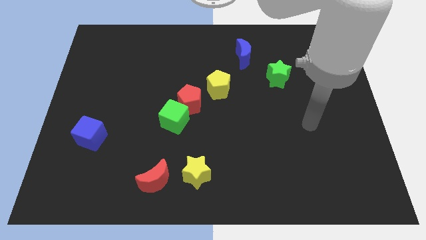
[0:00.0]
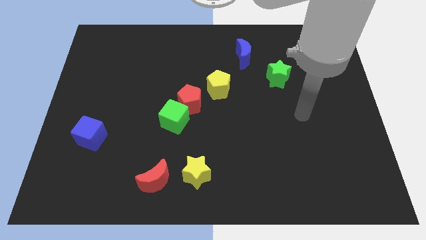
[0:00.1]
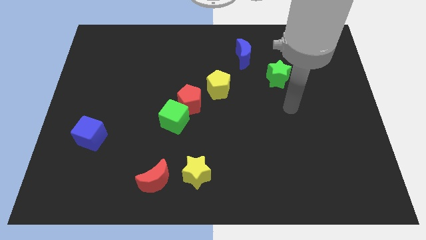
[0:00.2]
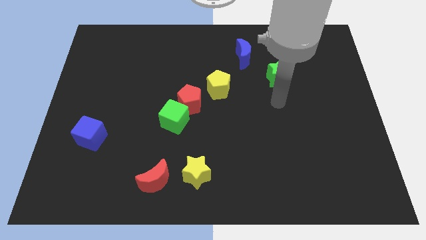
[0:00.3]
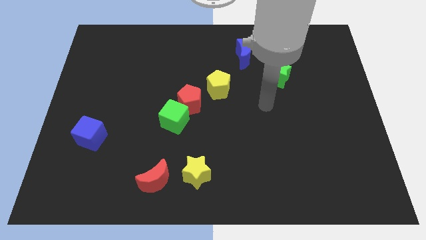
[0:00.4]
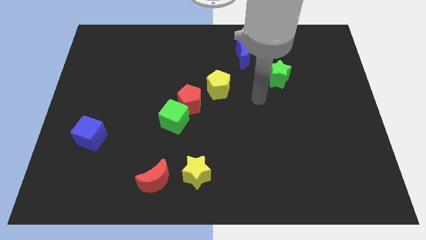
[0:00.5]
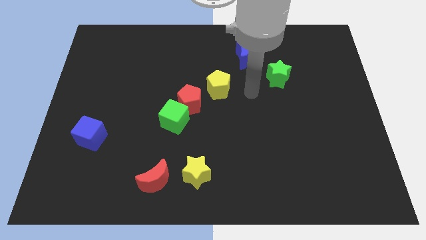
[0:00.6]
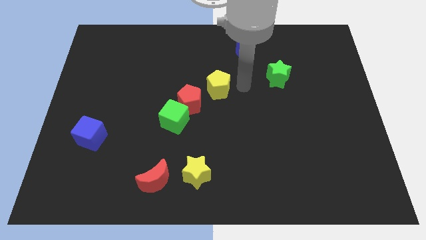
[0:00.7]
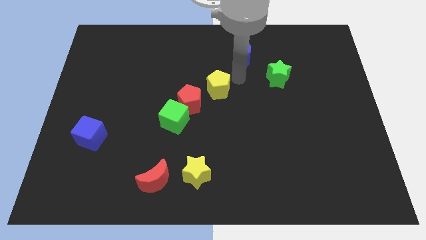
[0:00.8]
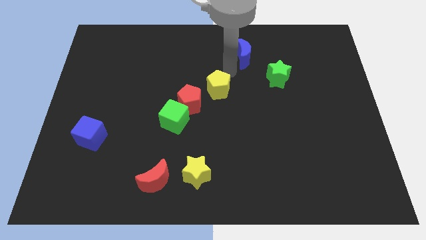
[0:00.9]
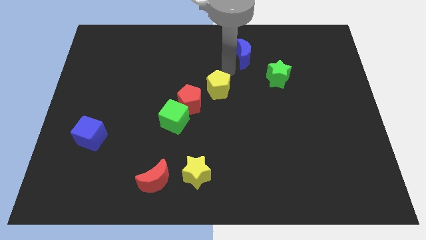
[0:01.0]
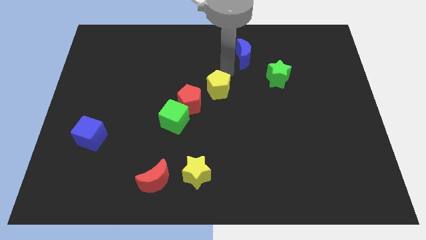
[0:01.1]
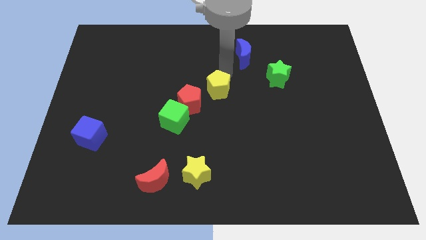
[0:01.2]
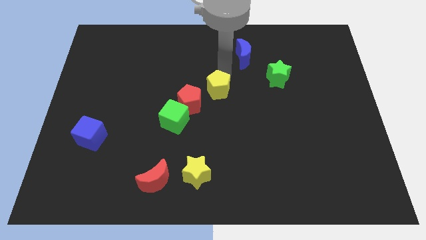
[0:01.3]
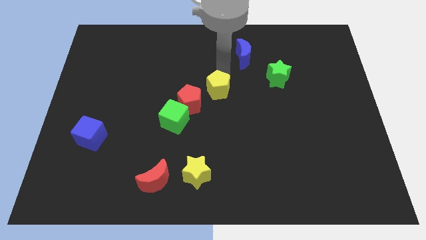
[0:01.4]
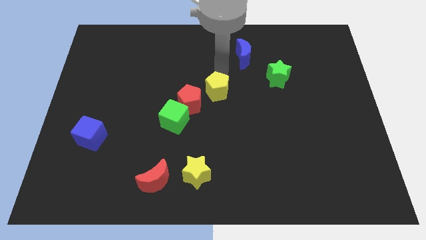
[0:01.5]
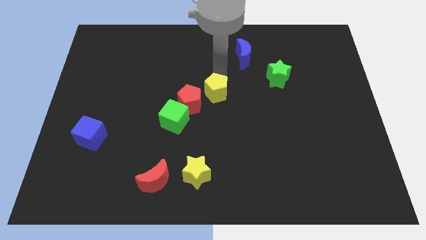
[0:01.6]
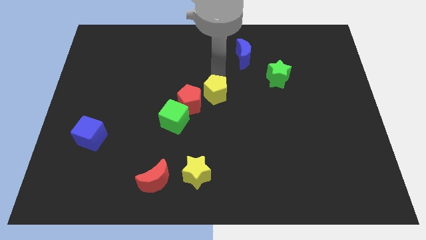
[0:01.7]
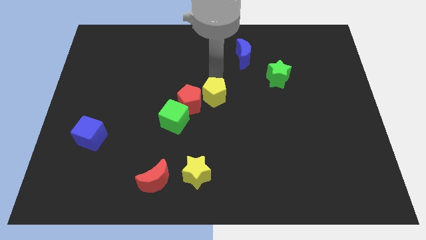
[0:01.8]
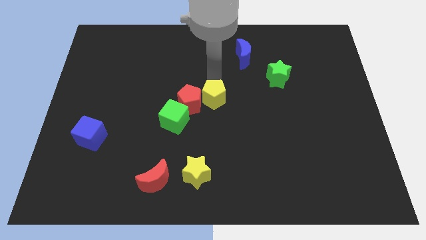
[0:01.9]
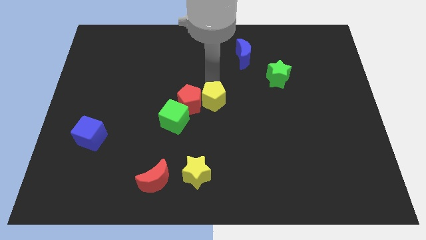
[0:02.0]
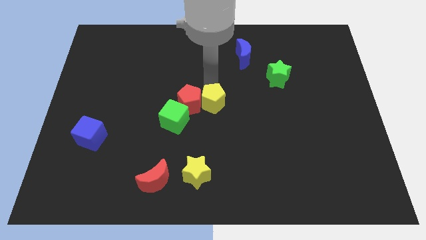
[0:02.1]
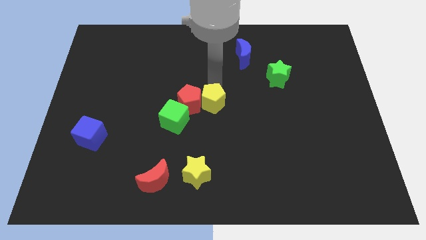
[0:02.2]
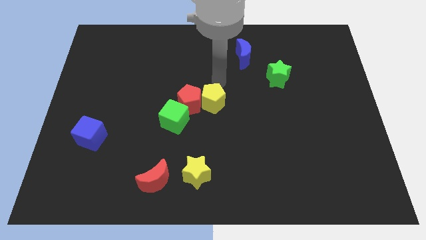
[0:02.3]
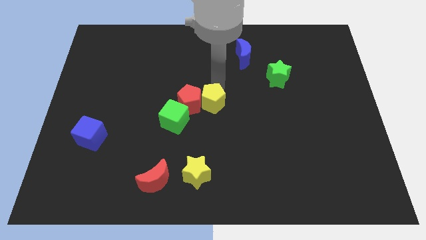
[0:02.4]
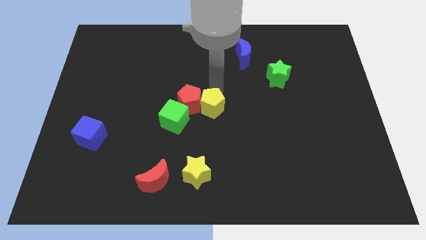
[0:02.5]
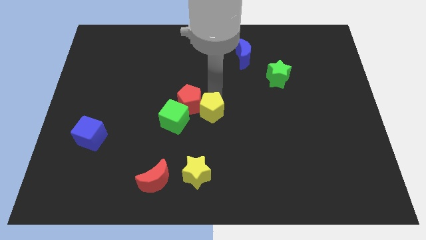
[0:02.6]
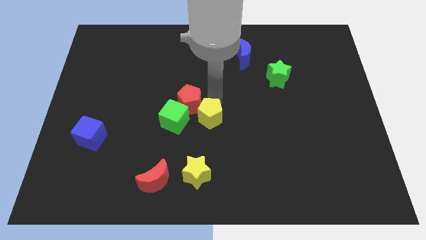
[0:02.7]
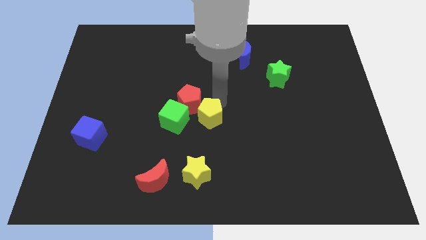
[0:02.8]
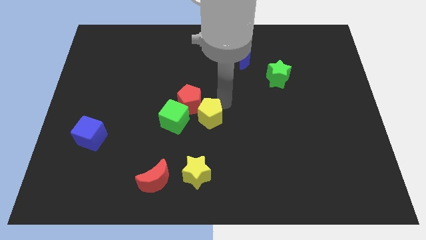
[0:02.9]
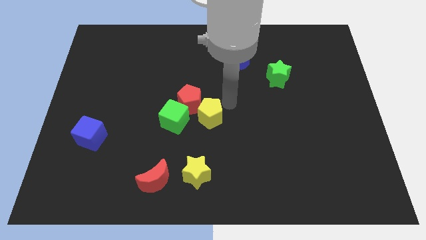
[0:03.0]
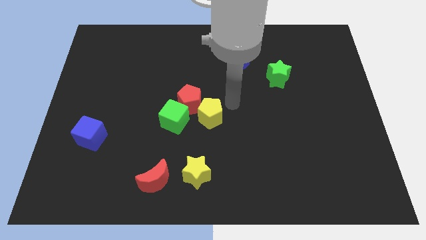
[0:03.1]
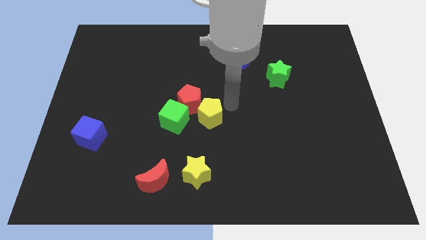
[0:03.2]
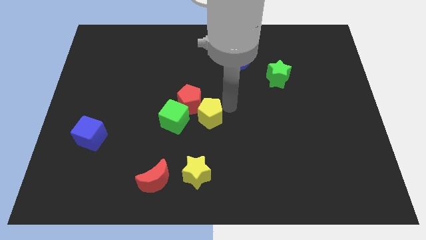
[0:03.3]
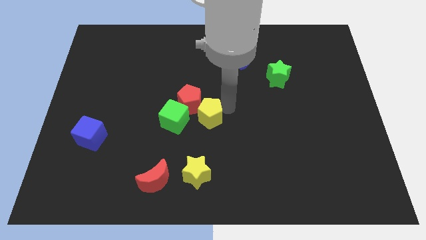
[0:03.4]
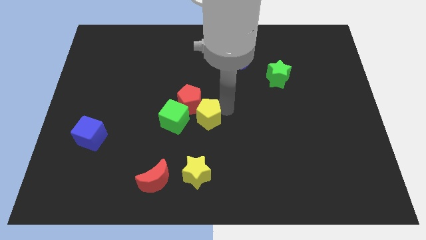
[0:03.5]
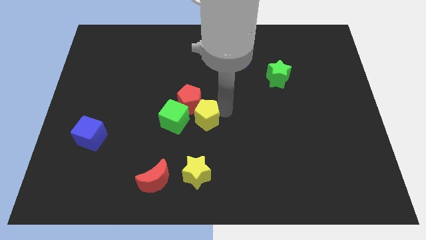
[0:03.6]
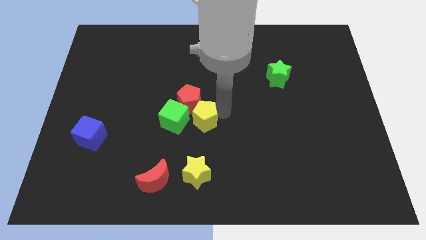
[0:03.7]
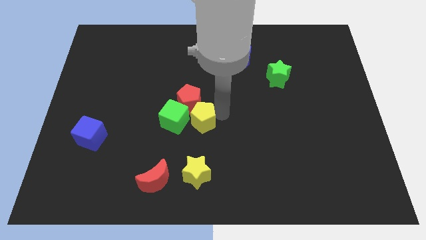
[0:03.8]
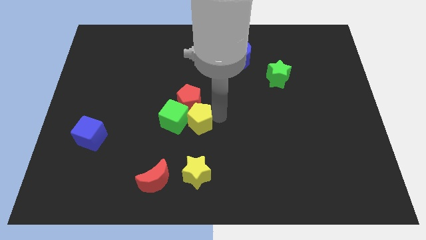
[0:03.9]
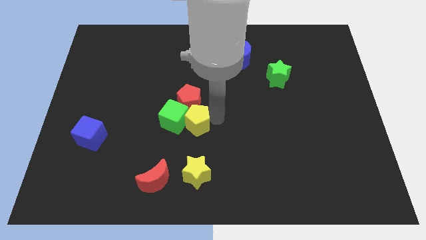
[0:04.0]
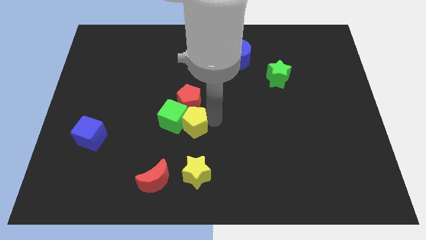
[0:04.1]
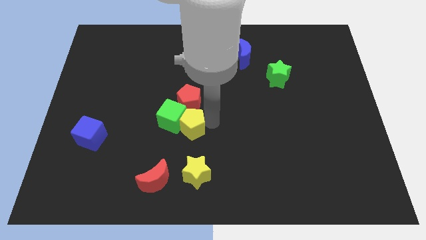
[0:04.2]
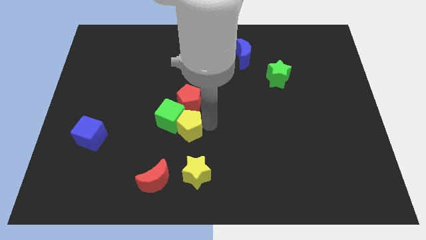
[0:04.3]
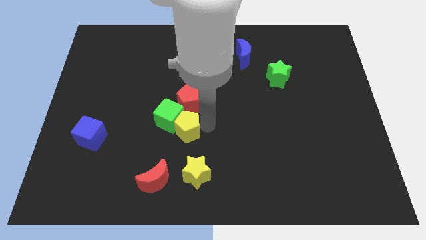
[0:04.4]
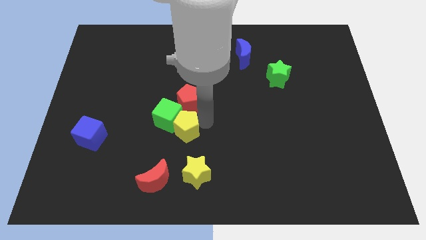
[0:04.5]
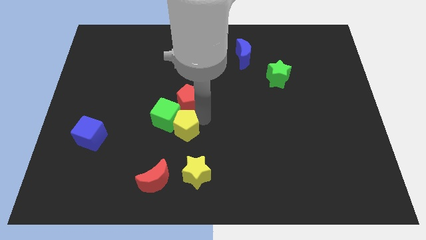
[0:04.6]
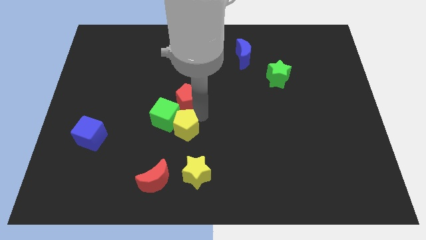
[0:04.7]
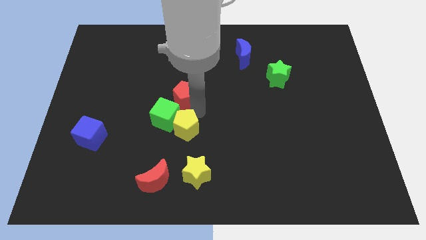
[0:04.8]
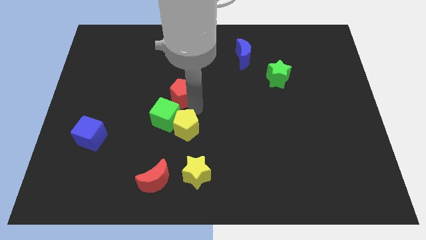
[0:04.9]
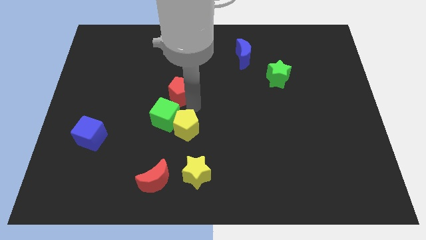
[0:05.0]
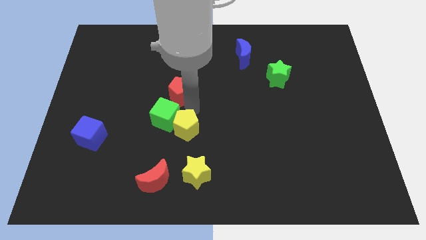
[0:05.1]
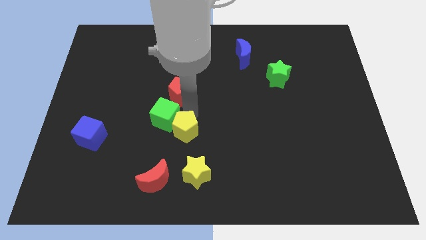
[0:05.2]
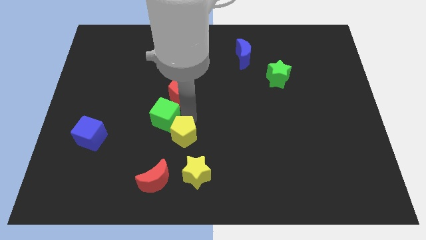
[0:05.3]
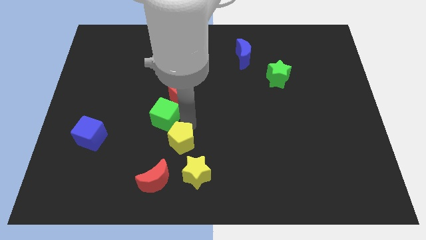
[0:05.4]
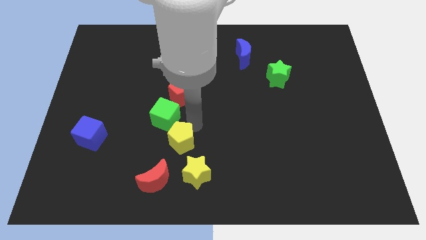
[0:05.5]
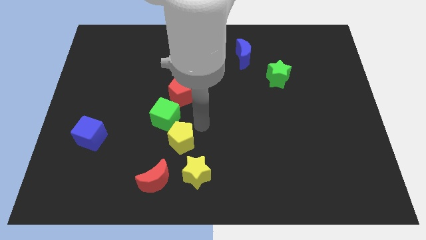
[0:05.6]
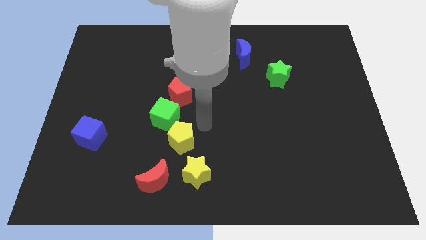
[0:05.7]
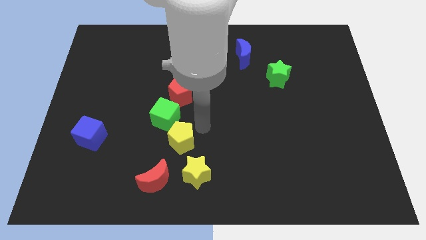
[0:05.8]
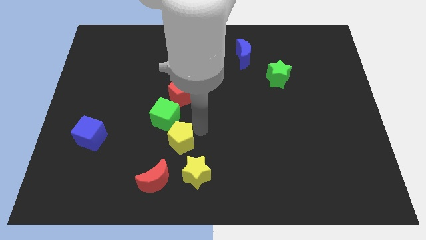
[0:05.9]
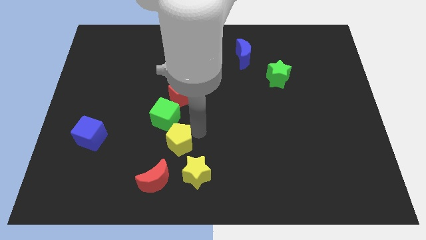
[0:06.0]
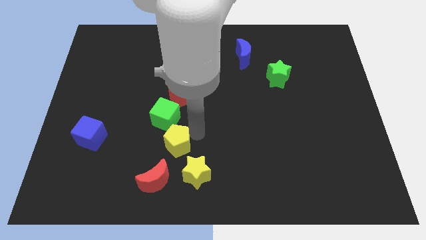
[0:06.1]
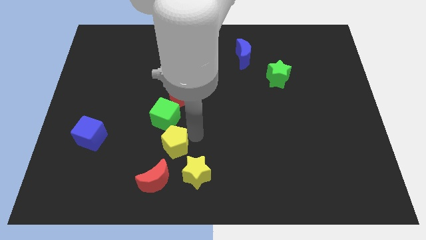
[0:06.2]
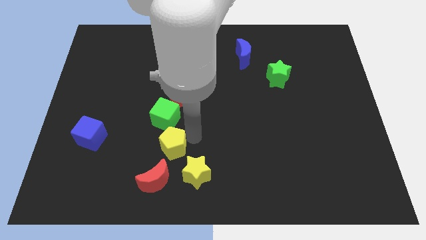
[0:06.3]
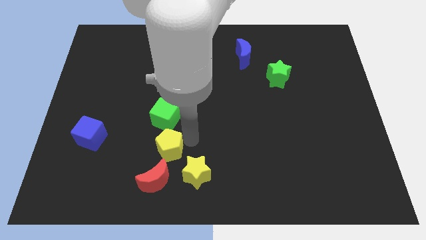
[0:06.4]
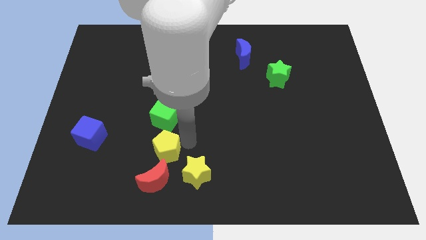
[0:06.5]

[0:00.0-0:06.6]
push the yellow pentagon downwards and then to the left

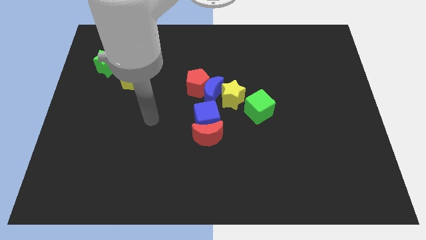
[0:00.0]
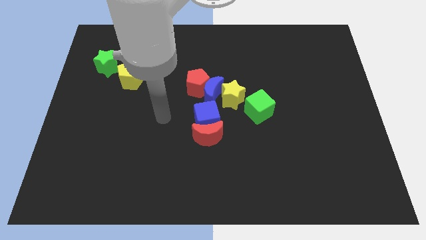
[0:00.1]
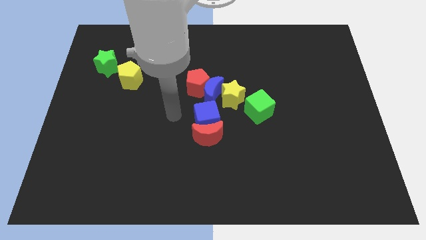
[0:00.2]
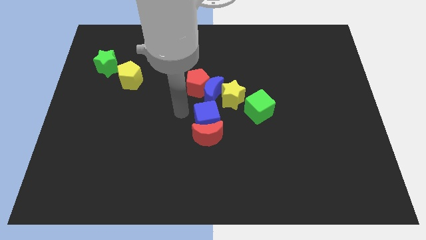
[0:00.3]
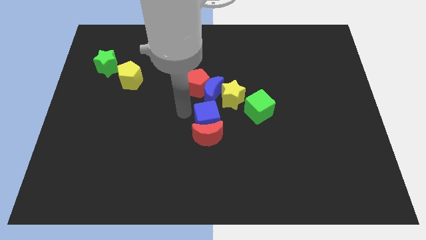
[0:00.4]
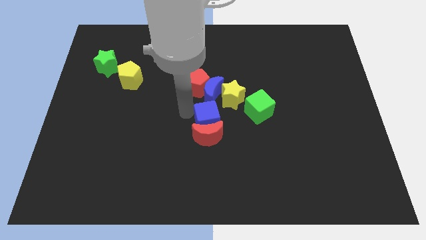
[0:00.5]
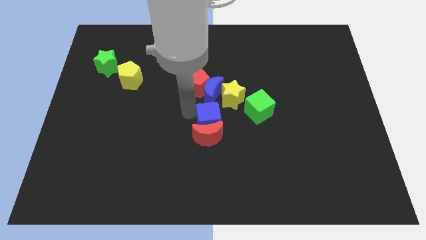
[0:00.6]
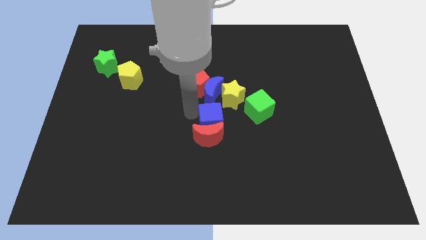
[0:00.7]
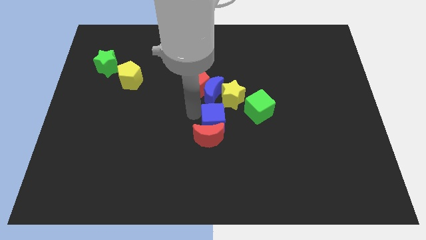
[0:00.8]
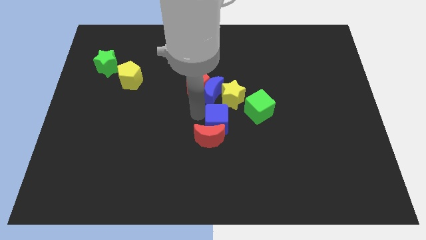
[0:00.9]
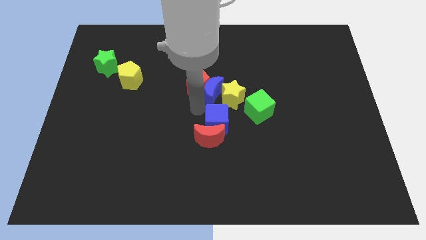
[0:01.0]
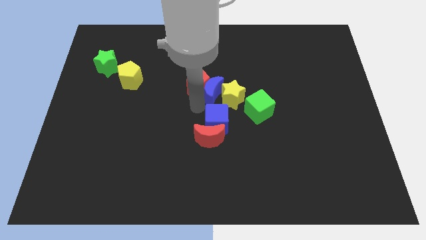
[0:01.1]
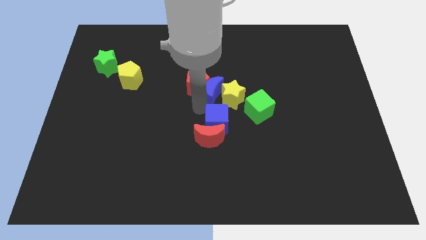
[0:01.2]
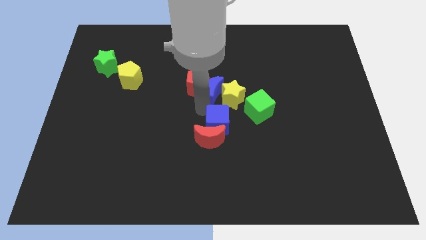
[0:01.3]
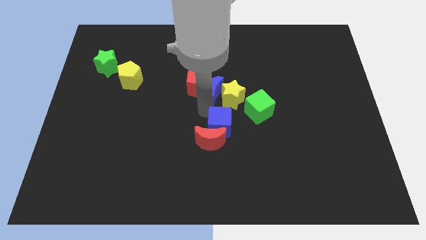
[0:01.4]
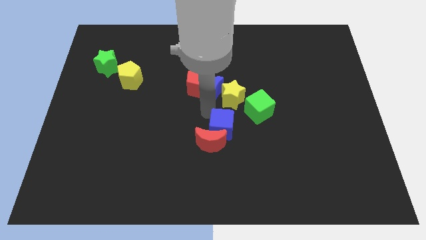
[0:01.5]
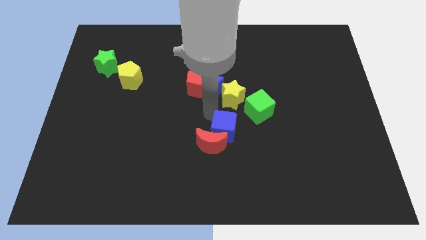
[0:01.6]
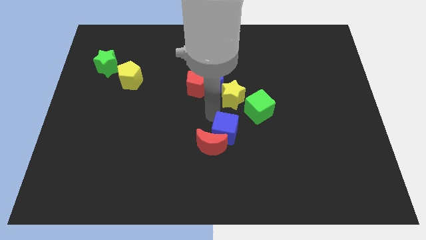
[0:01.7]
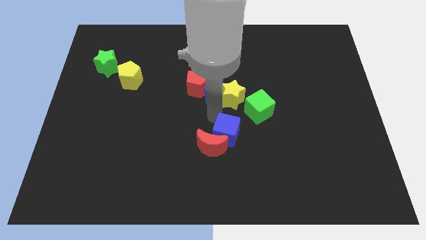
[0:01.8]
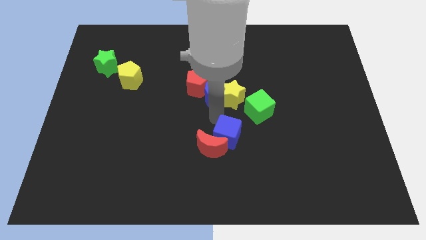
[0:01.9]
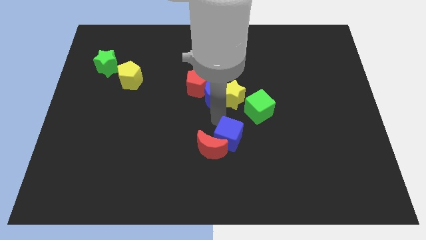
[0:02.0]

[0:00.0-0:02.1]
move the blue cube downwards and right a little
